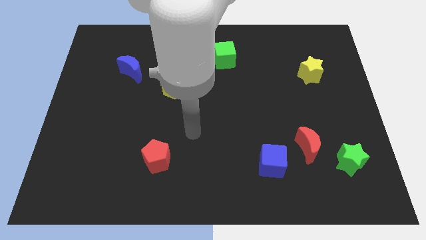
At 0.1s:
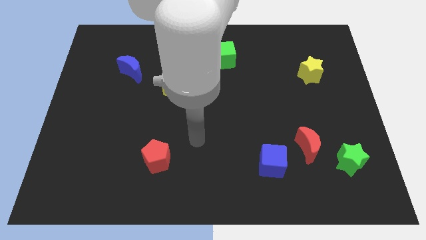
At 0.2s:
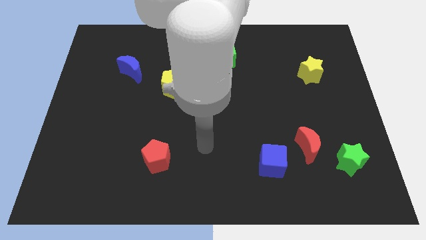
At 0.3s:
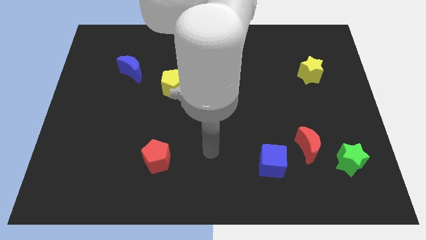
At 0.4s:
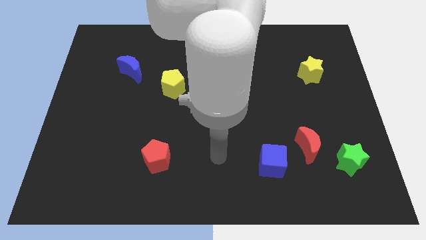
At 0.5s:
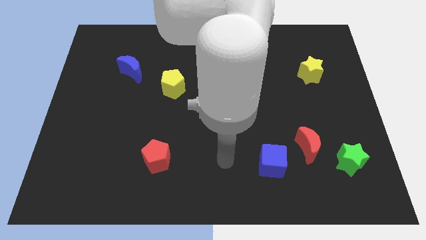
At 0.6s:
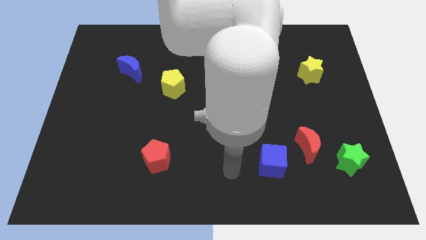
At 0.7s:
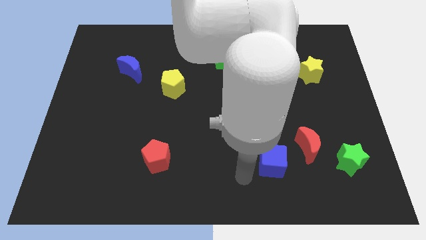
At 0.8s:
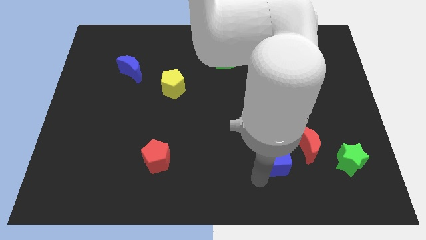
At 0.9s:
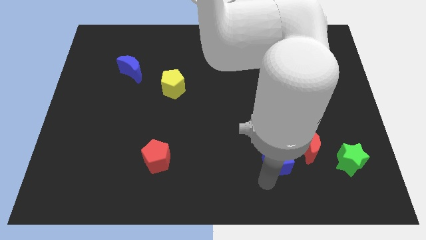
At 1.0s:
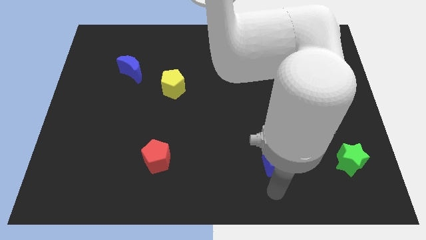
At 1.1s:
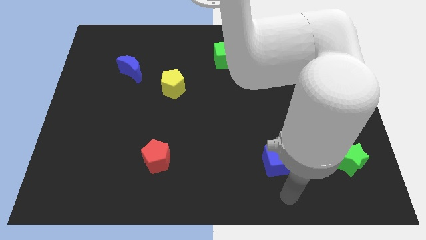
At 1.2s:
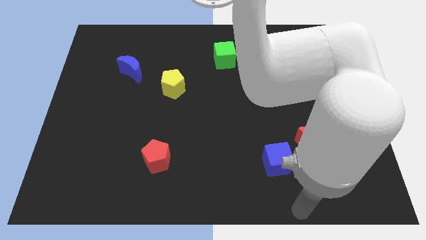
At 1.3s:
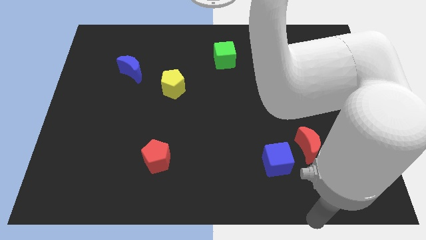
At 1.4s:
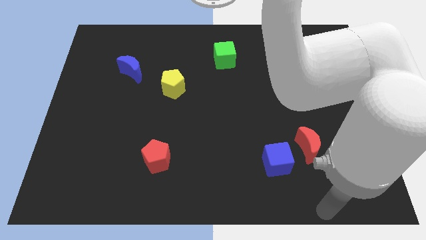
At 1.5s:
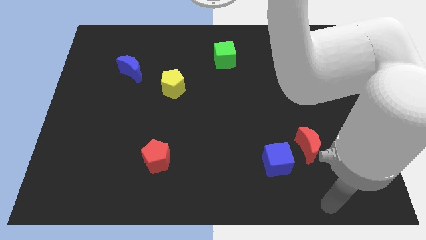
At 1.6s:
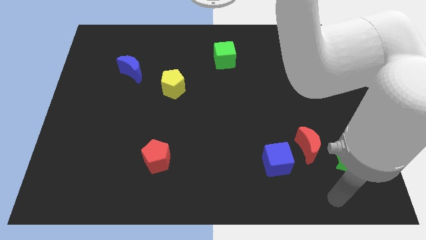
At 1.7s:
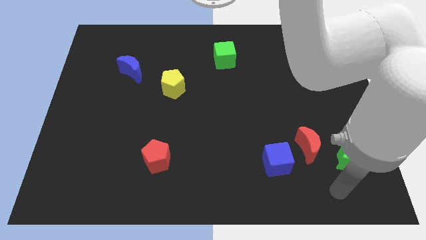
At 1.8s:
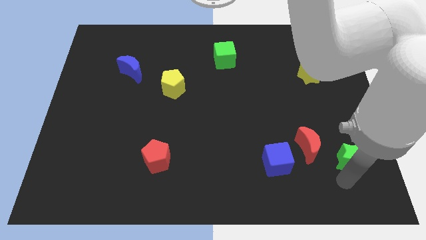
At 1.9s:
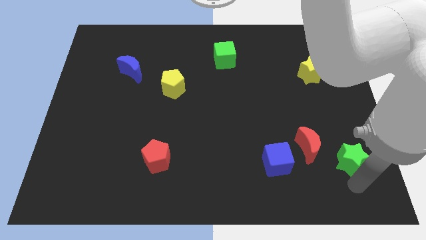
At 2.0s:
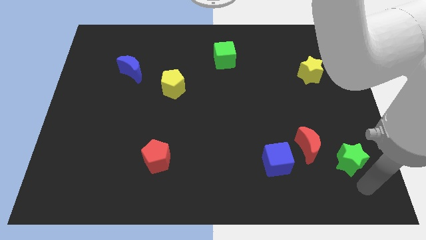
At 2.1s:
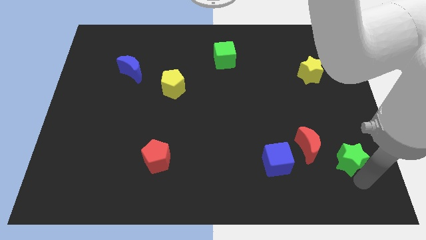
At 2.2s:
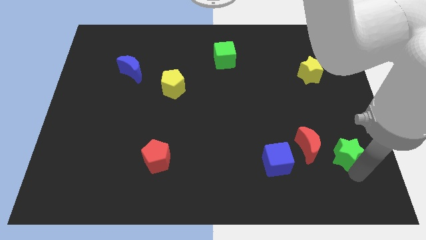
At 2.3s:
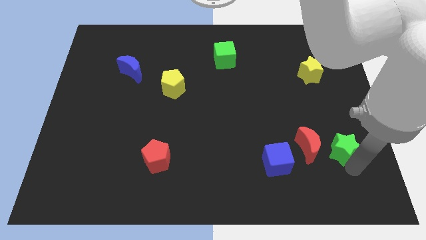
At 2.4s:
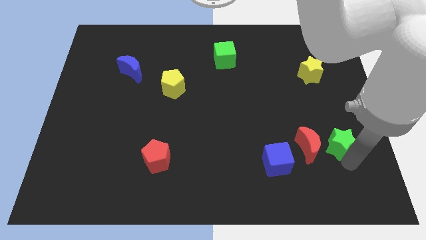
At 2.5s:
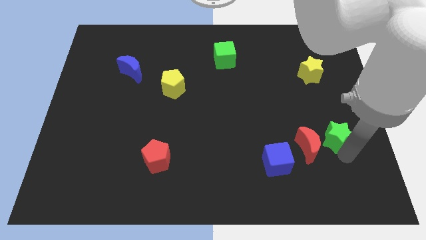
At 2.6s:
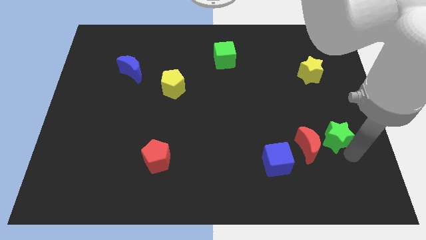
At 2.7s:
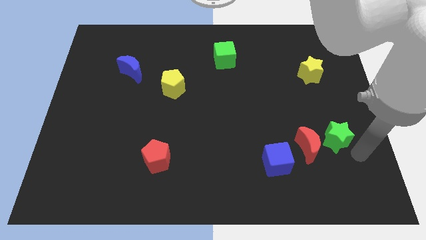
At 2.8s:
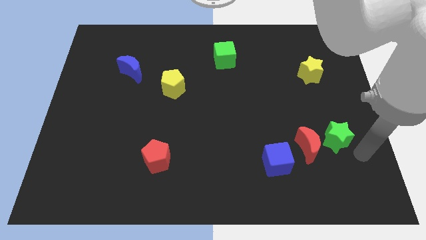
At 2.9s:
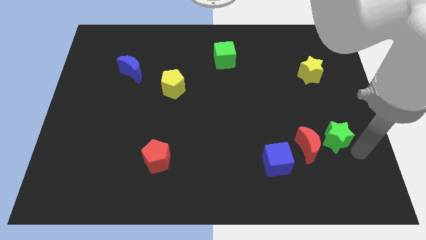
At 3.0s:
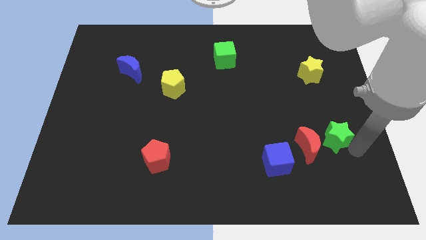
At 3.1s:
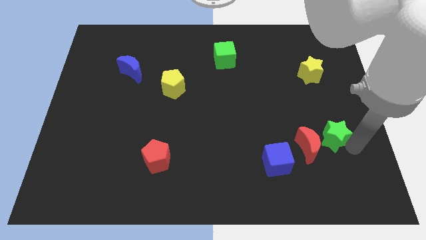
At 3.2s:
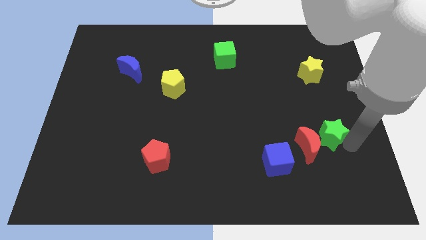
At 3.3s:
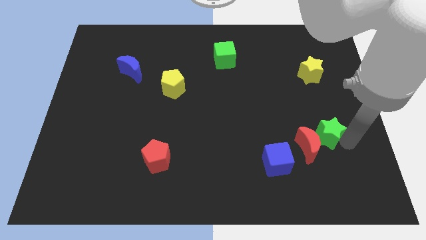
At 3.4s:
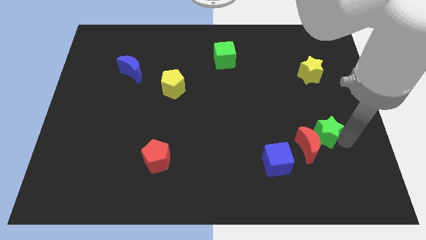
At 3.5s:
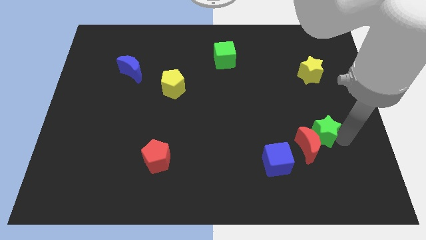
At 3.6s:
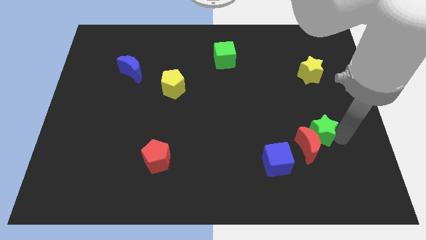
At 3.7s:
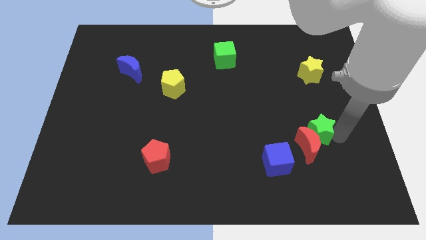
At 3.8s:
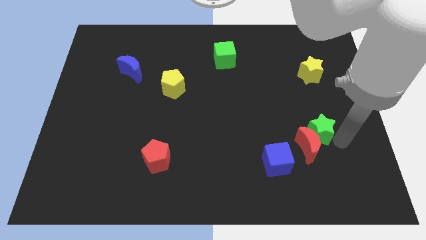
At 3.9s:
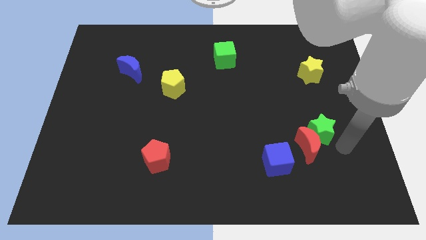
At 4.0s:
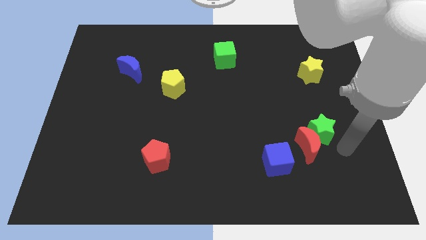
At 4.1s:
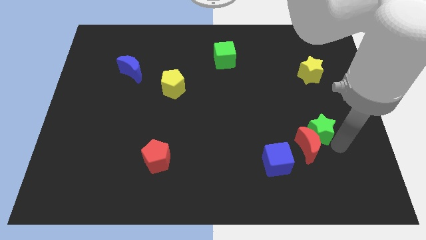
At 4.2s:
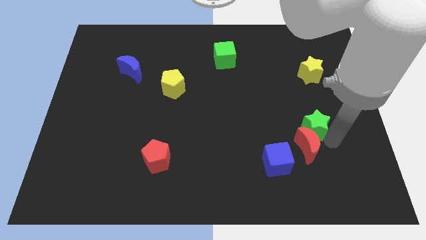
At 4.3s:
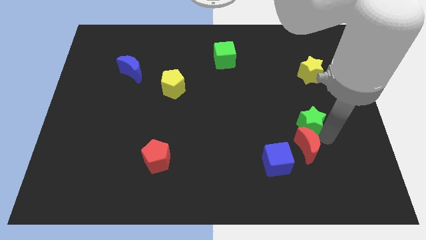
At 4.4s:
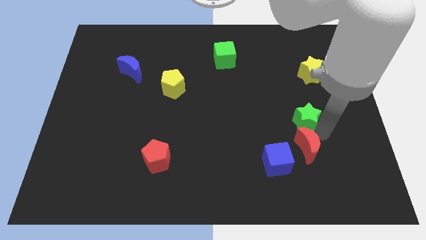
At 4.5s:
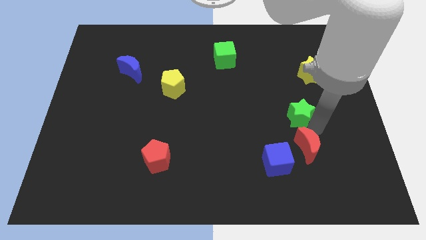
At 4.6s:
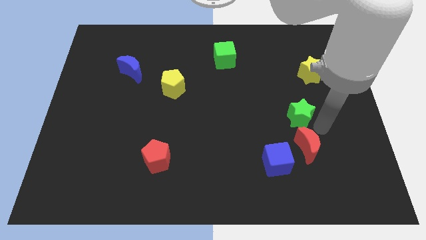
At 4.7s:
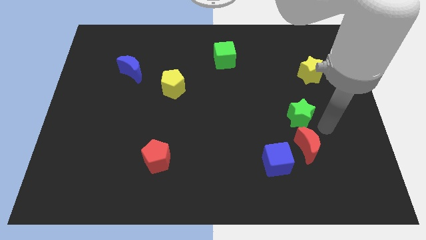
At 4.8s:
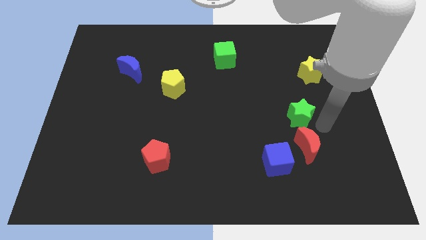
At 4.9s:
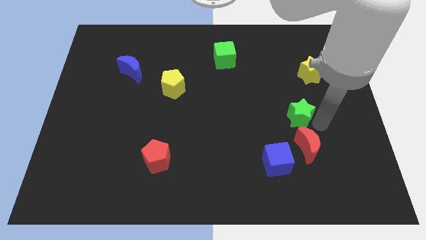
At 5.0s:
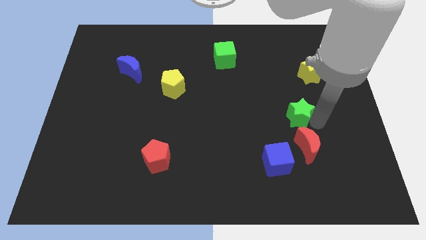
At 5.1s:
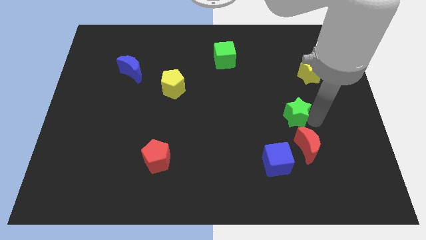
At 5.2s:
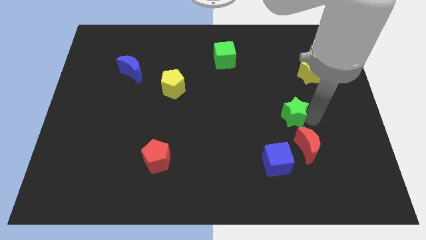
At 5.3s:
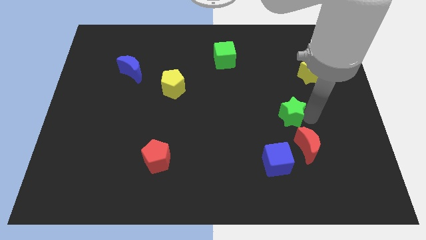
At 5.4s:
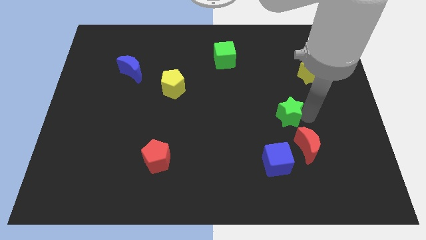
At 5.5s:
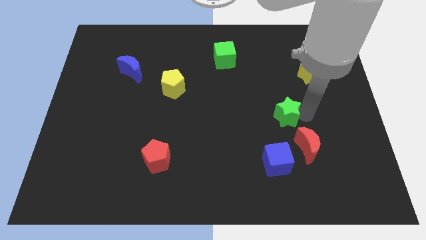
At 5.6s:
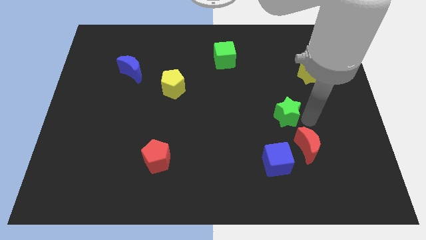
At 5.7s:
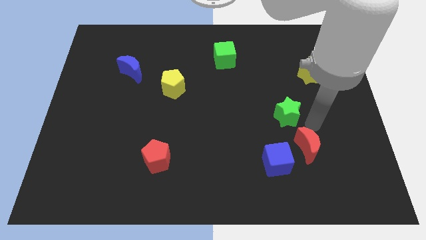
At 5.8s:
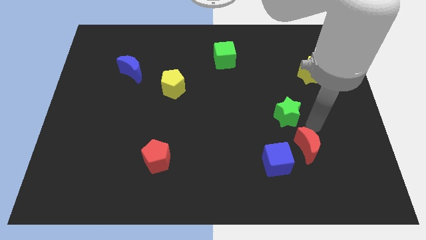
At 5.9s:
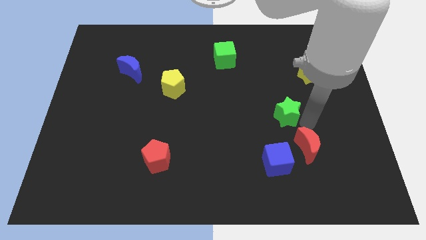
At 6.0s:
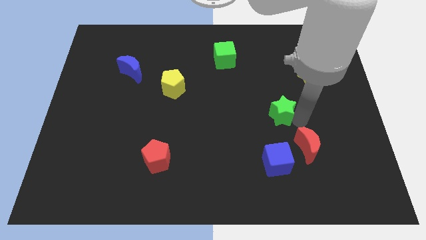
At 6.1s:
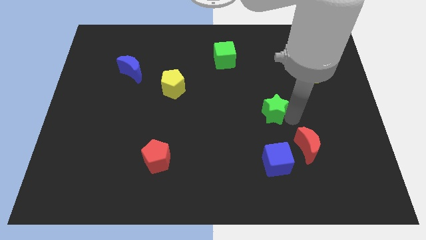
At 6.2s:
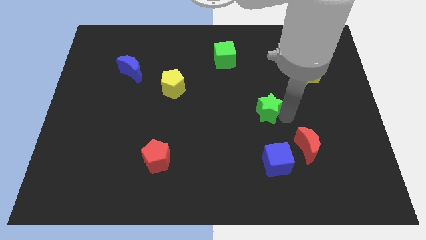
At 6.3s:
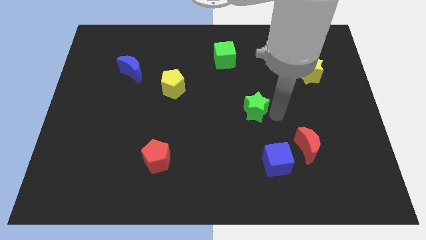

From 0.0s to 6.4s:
put the green star to the middle
